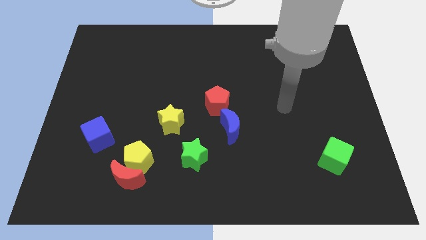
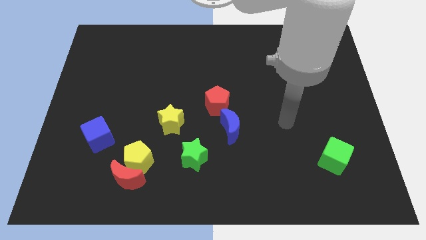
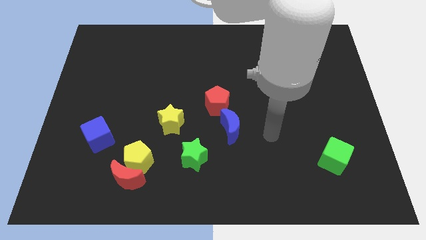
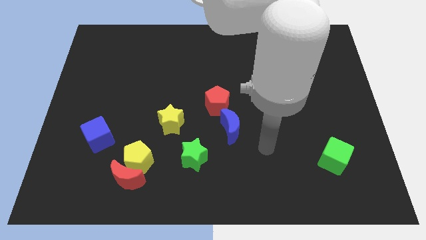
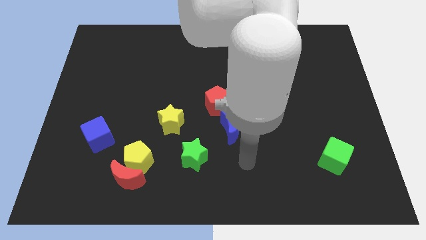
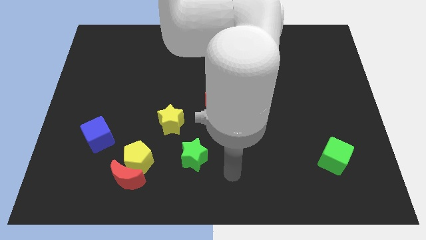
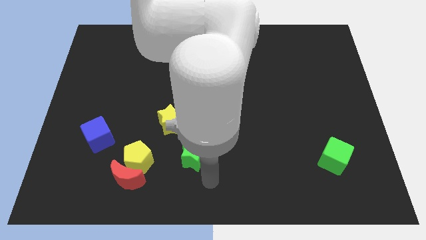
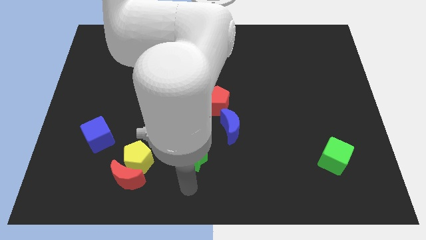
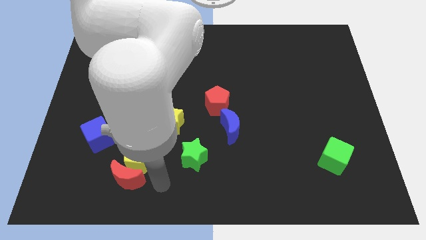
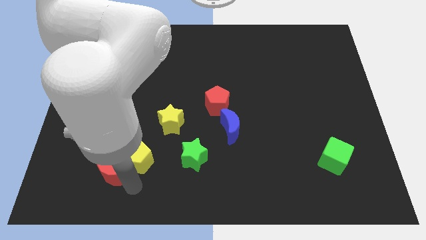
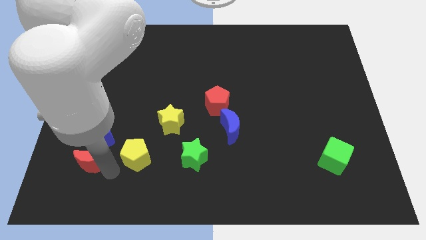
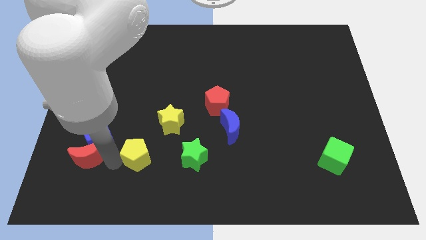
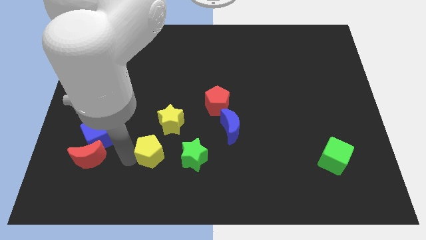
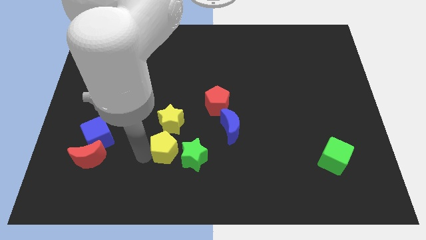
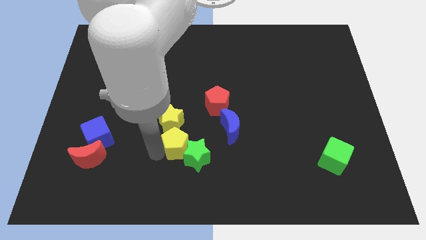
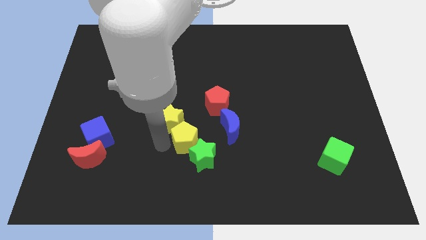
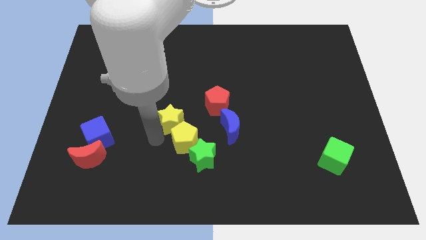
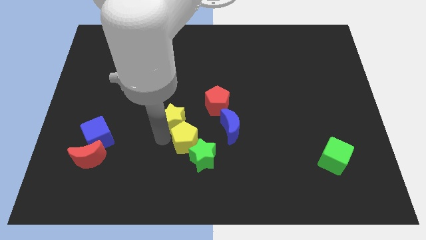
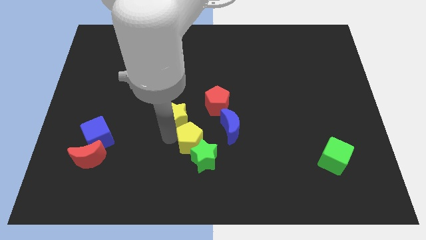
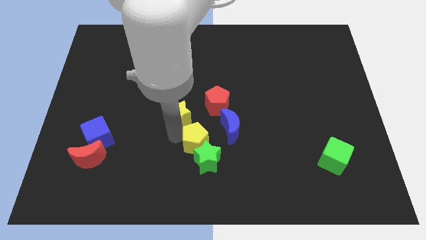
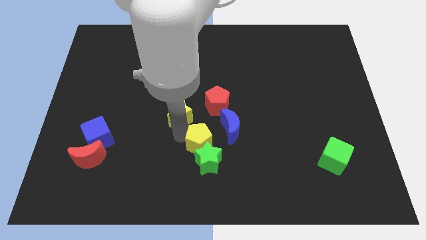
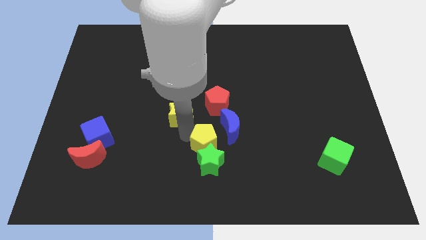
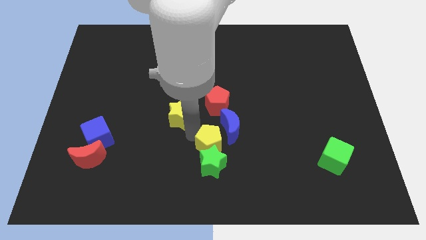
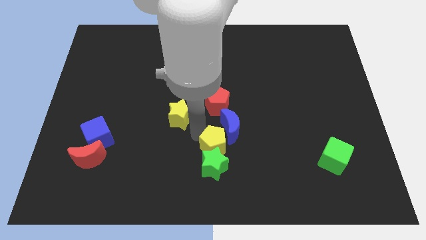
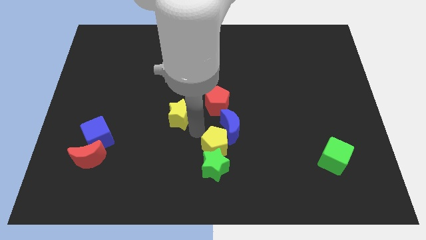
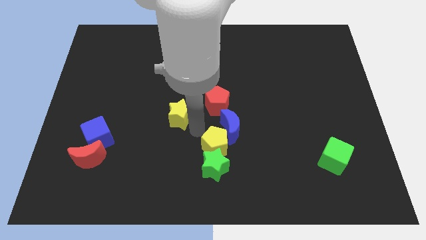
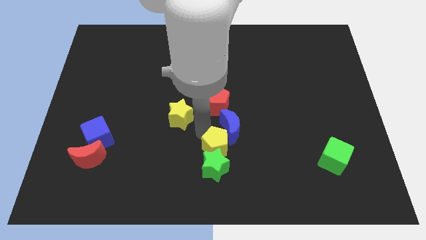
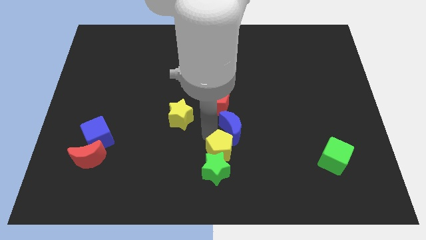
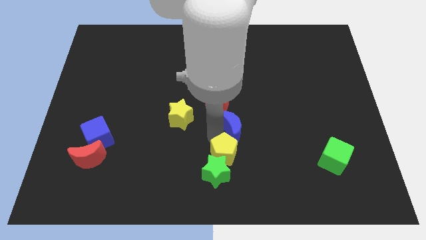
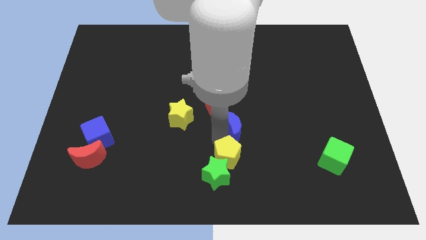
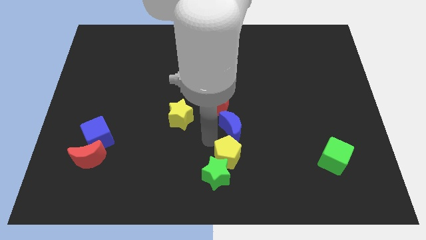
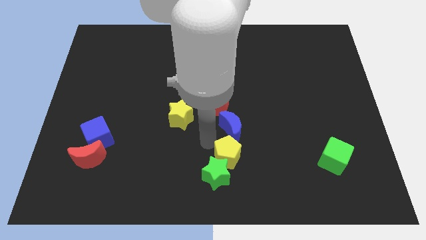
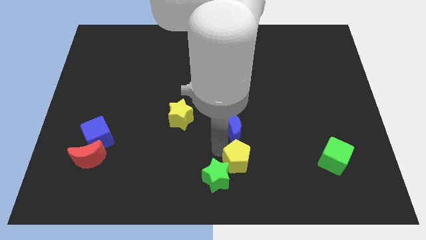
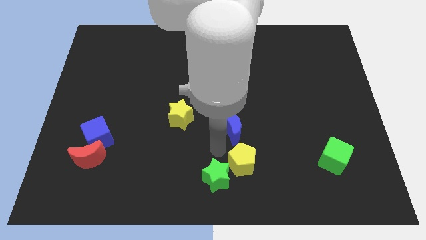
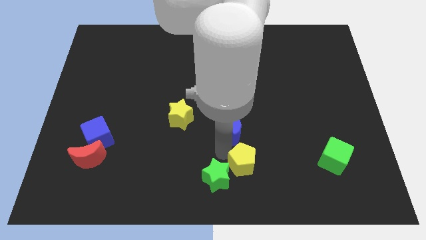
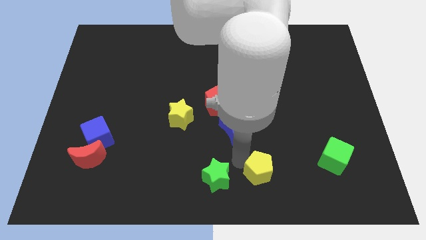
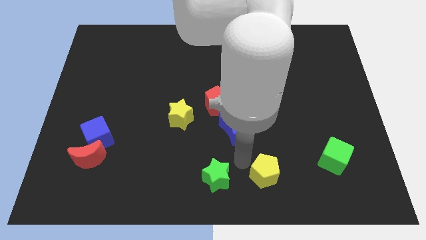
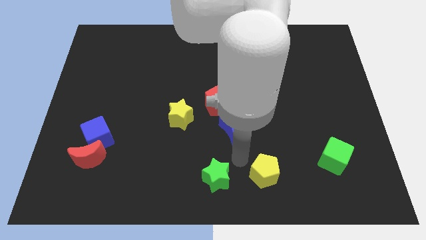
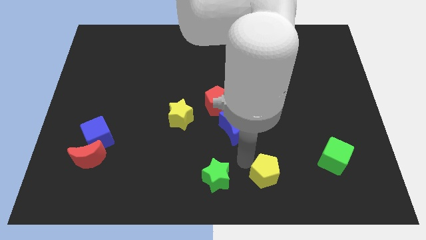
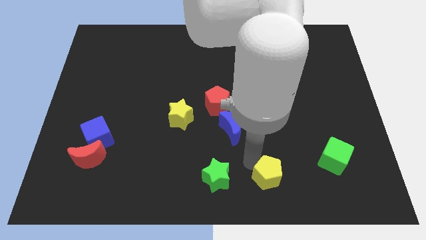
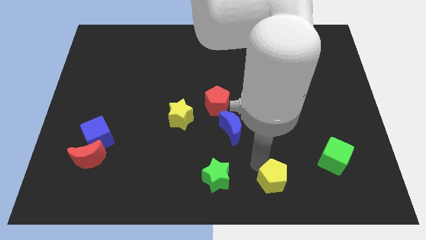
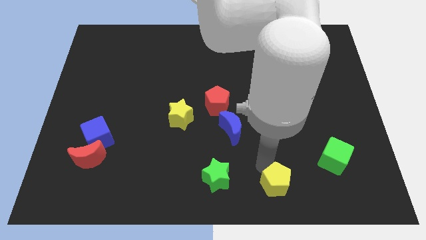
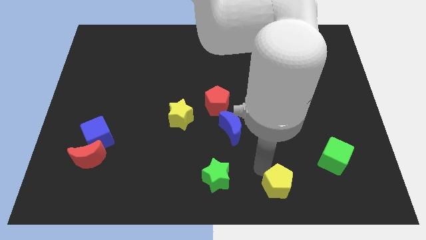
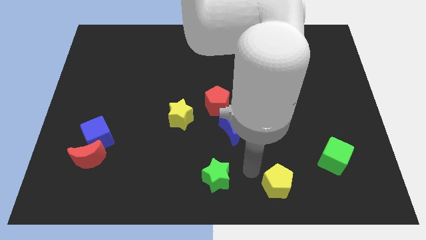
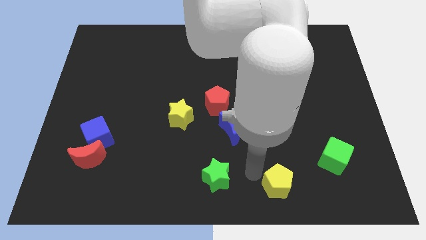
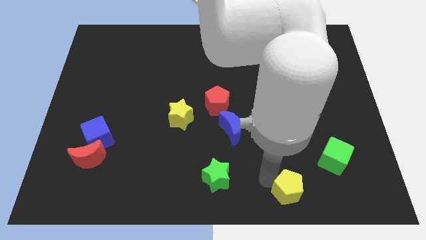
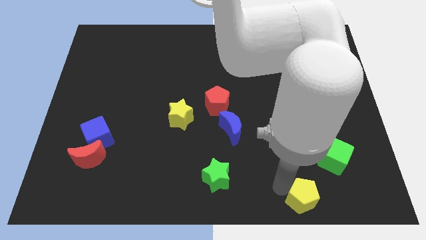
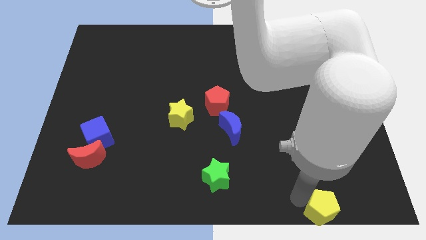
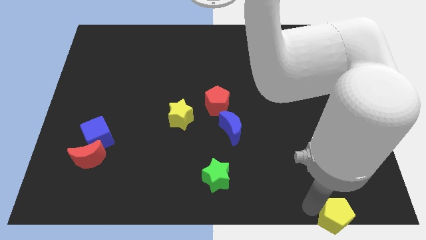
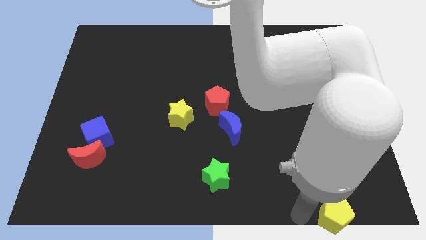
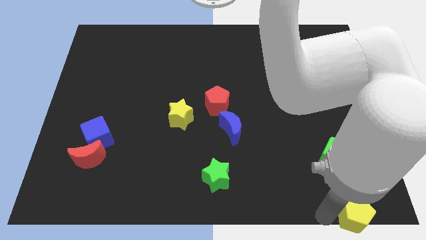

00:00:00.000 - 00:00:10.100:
put the yellow pentagon to the lower right corner
